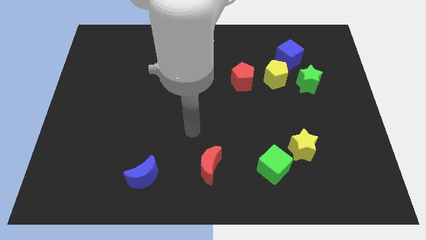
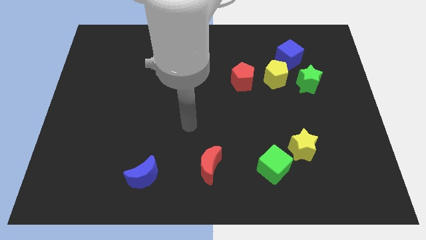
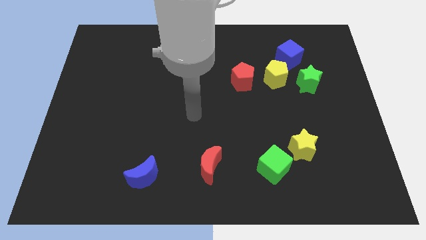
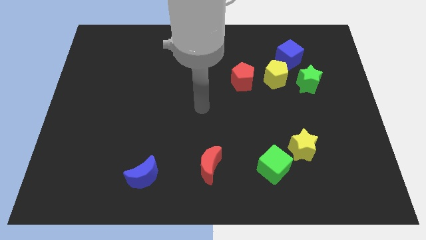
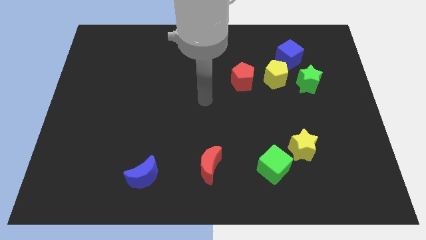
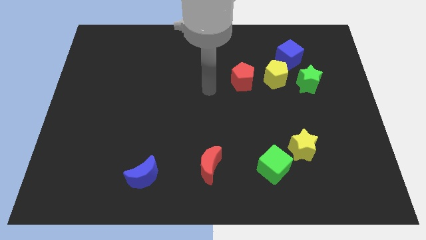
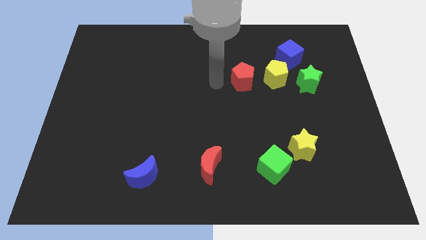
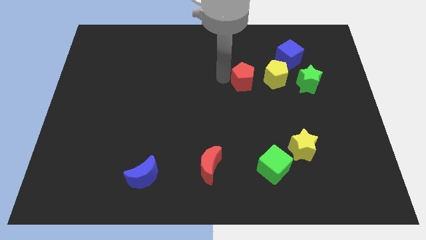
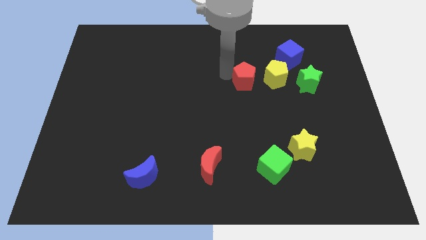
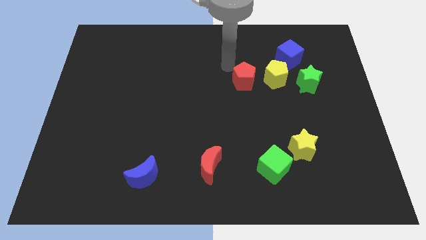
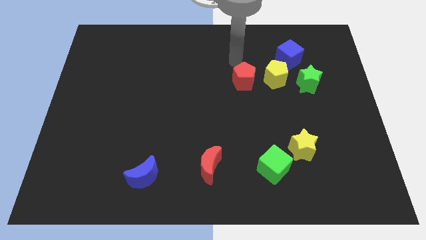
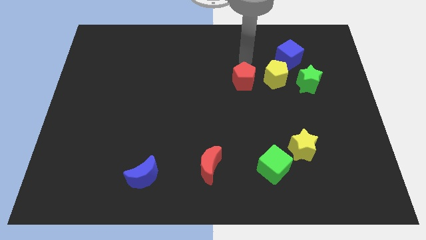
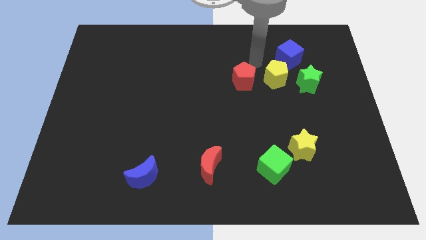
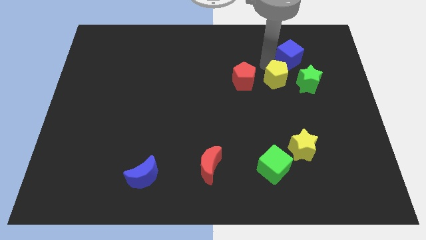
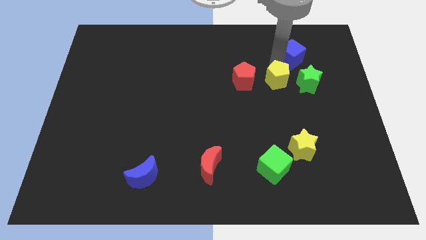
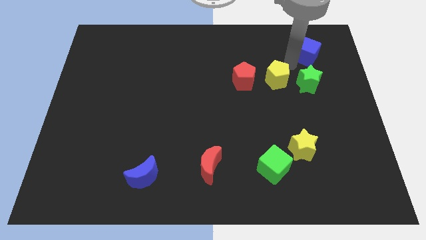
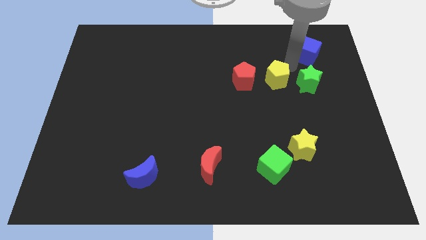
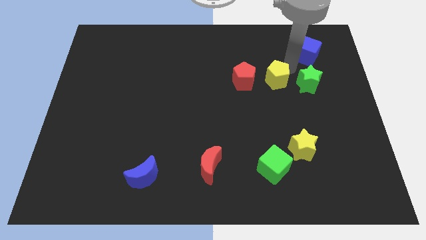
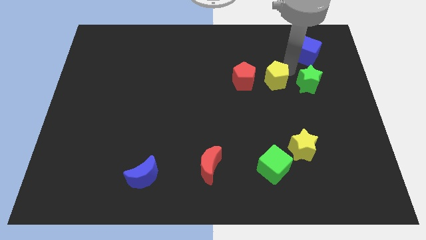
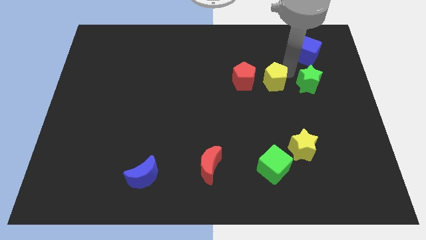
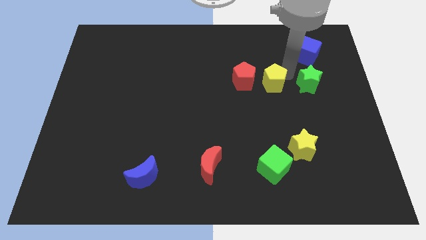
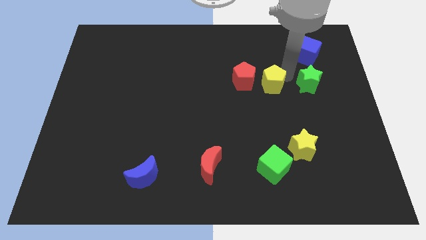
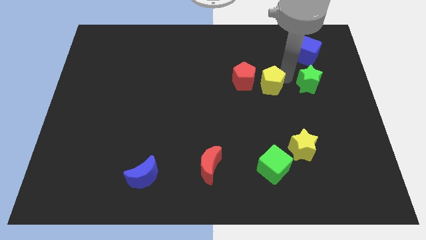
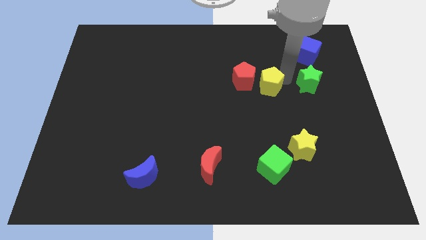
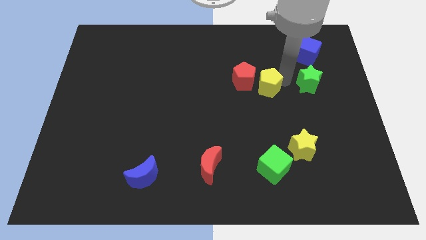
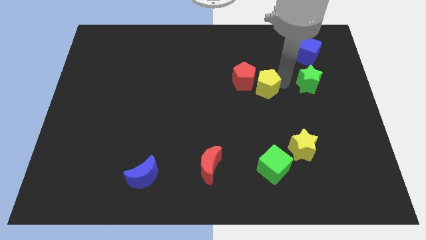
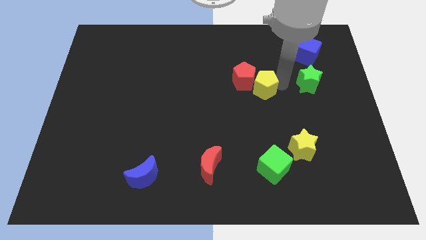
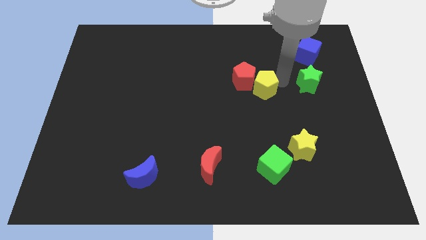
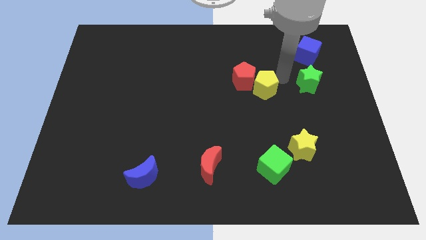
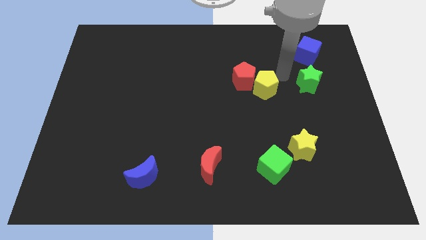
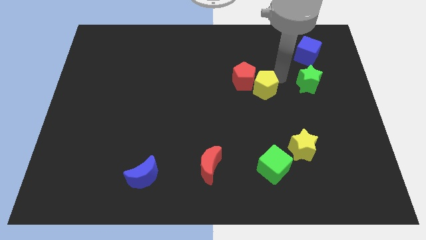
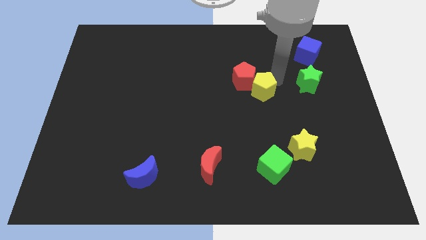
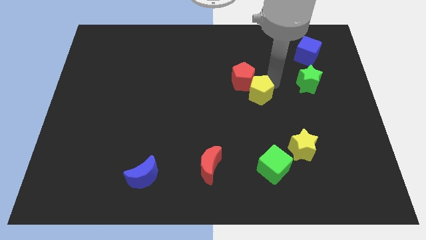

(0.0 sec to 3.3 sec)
pull the yellow pentagon apart from the group of blocks

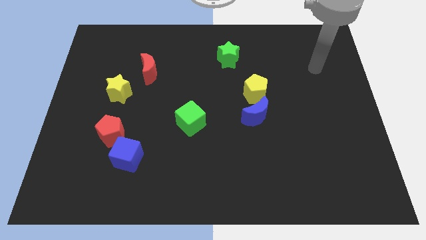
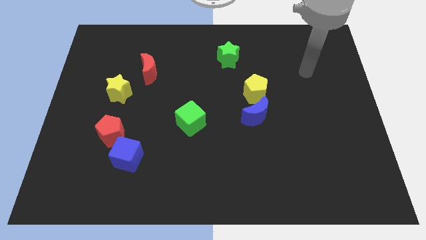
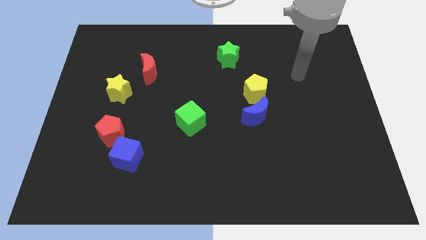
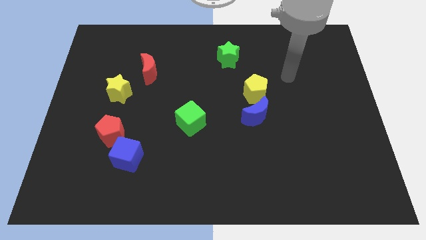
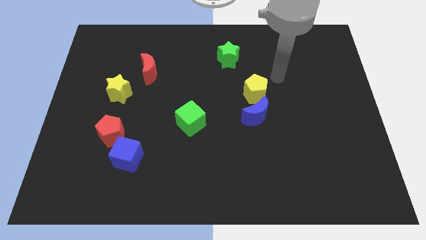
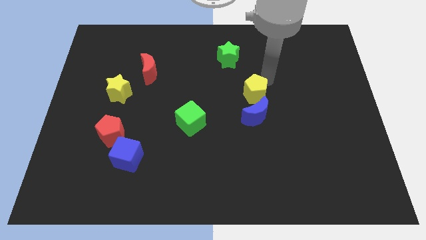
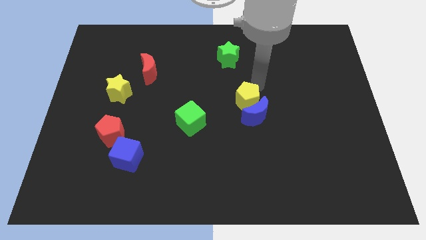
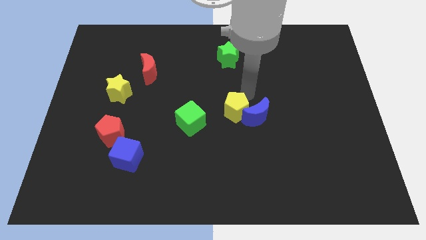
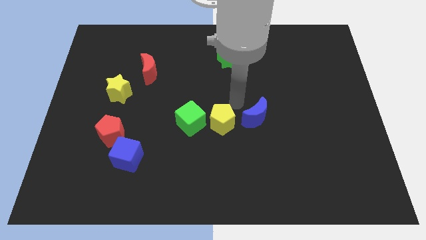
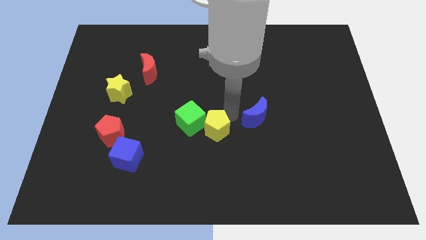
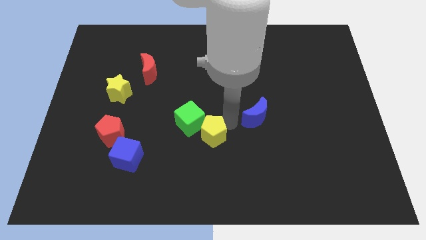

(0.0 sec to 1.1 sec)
pull the blue moon apart from the yellow pentagon

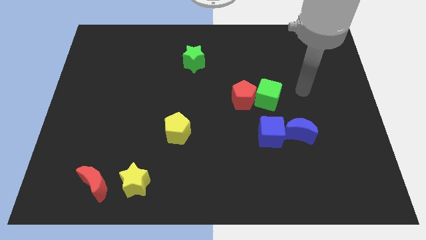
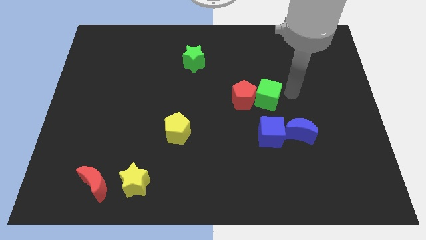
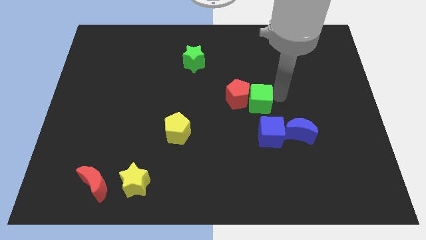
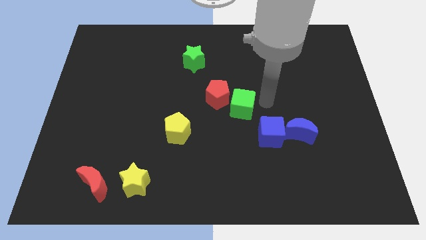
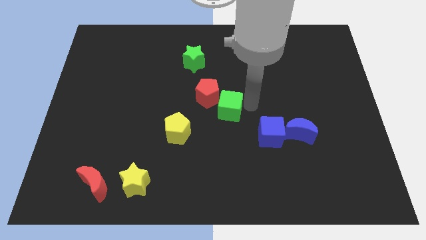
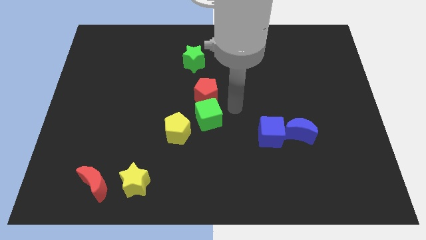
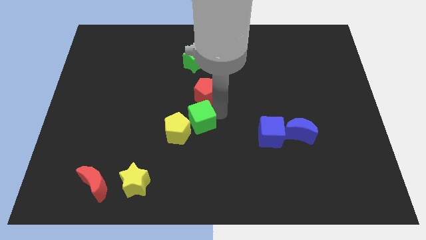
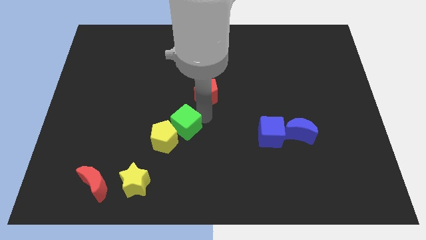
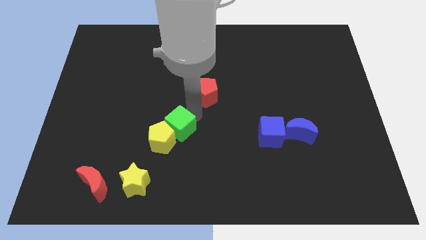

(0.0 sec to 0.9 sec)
move the red pentagon away from the green cube

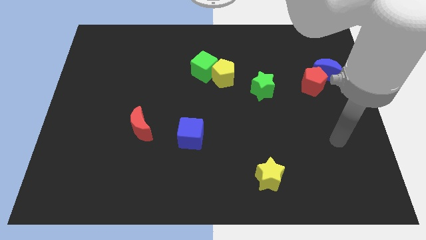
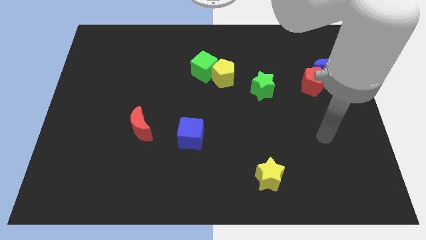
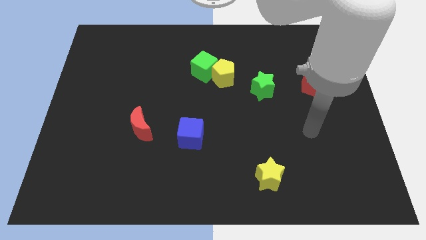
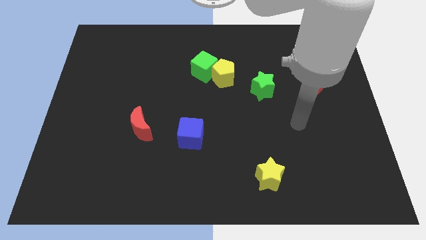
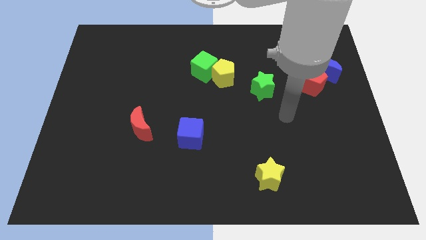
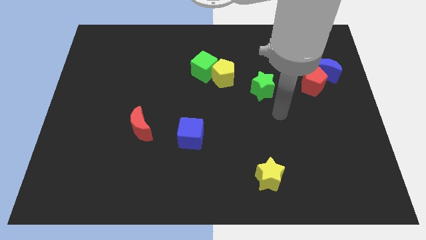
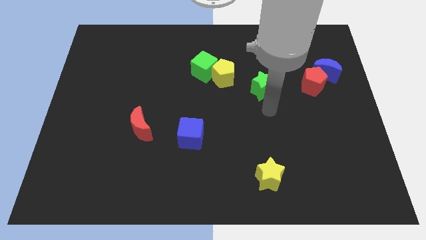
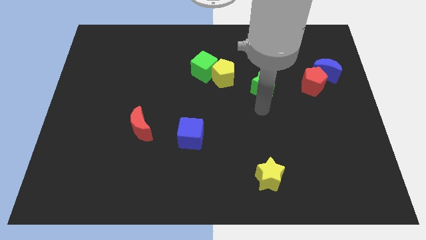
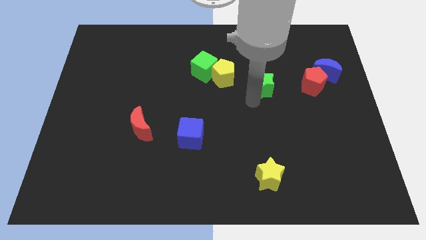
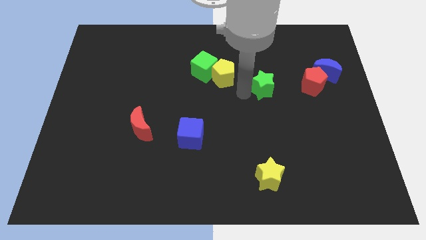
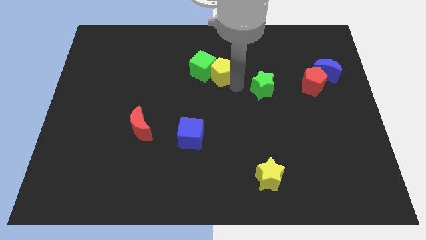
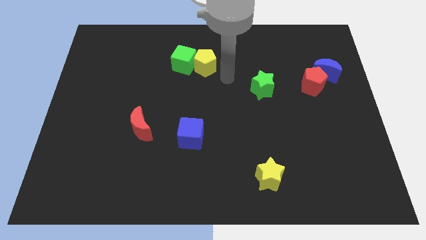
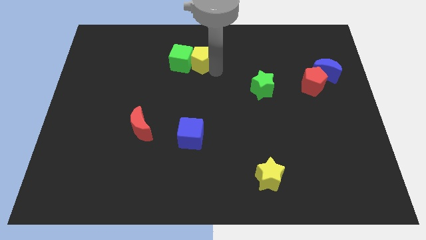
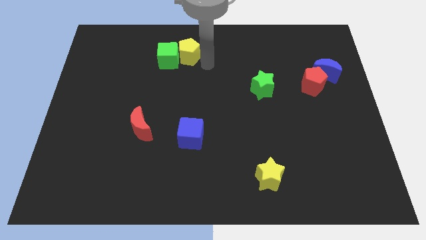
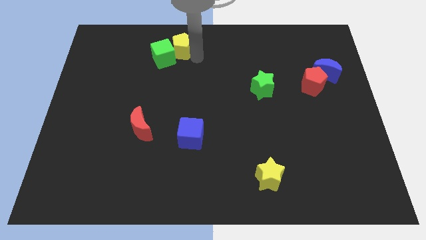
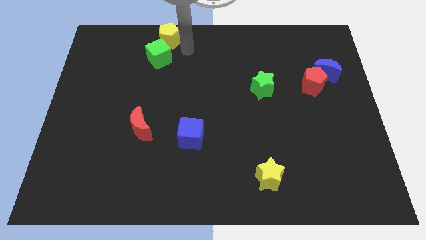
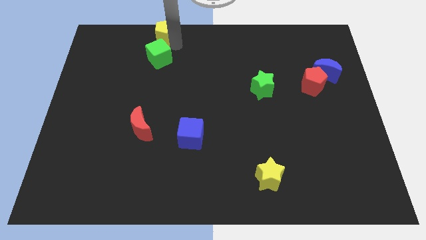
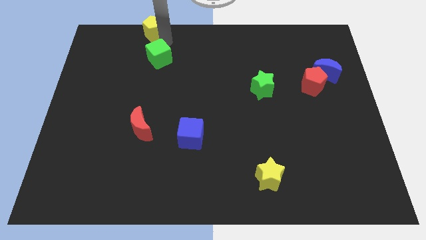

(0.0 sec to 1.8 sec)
move the green cube away from the yellow pentagon

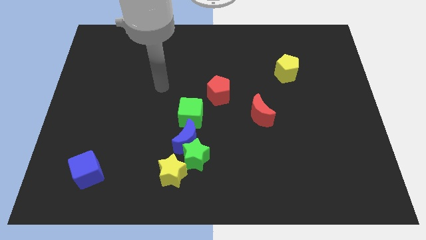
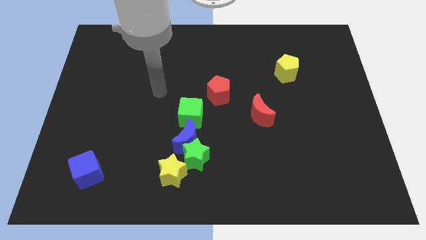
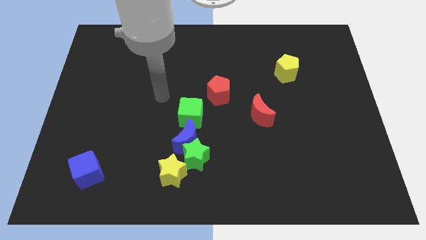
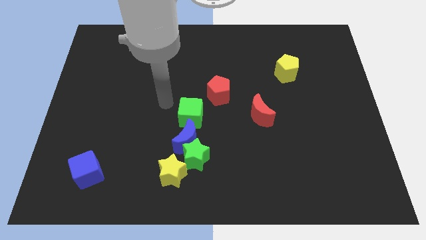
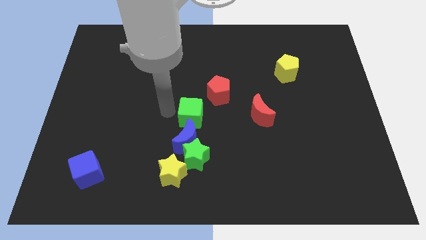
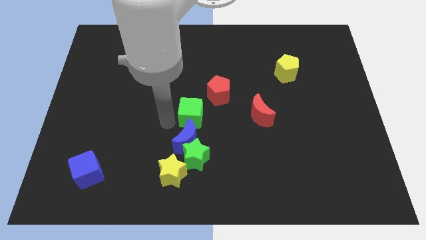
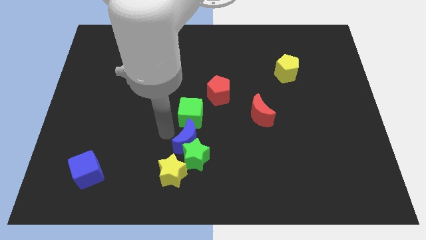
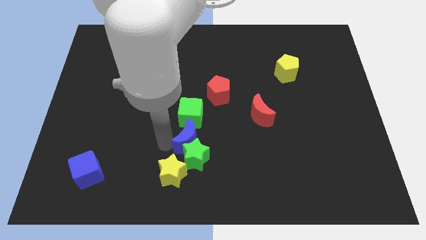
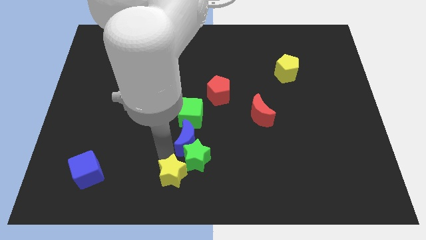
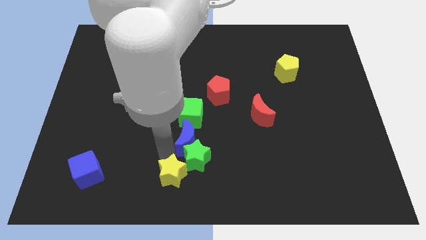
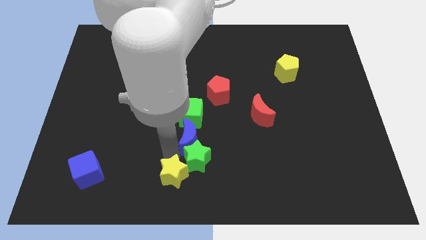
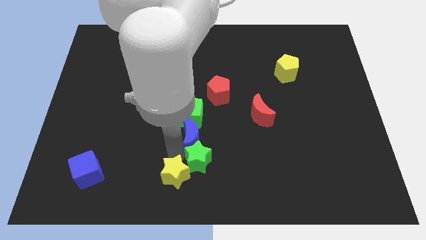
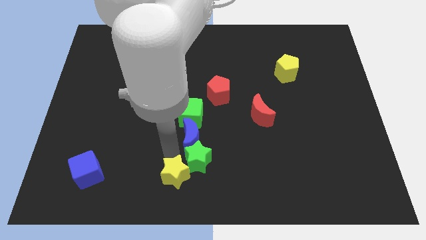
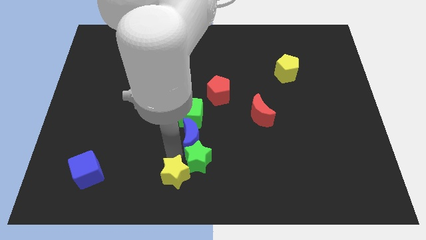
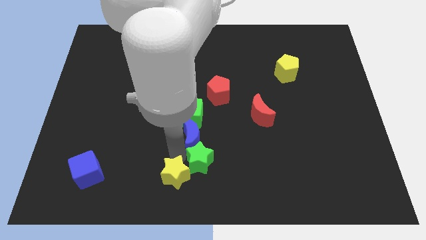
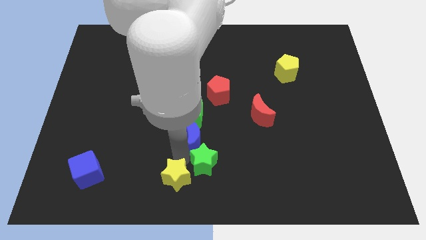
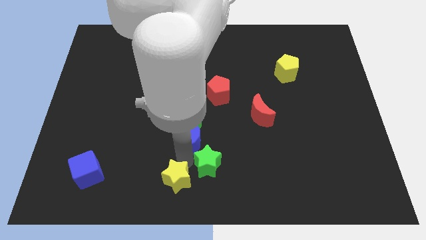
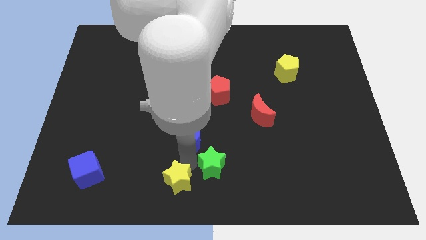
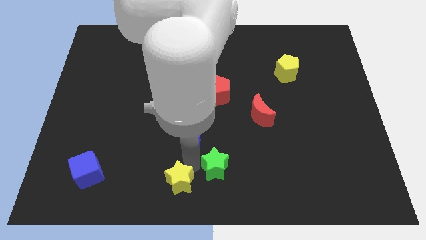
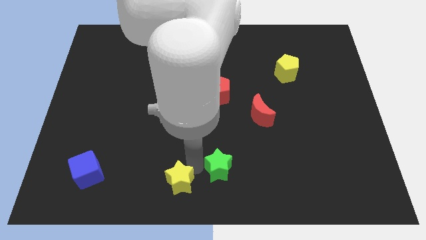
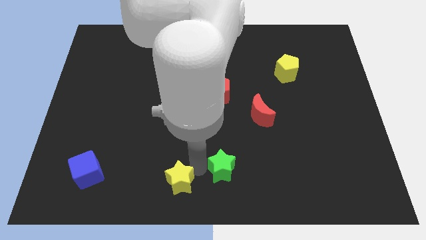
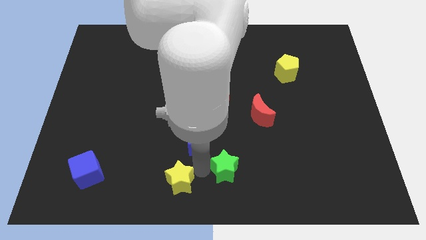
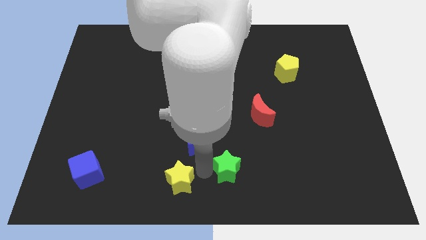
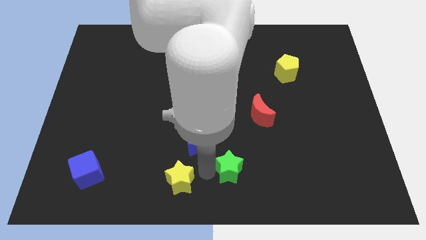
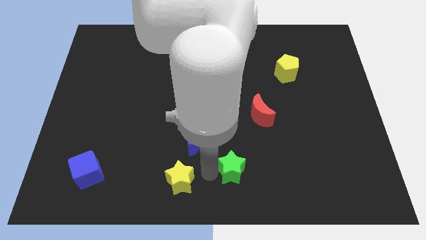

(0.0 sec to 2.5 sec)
move the green star away from the blue moon and yellow star
